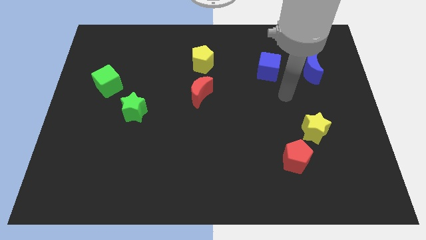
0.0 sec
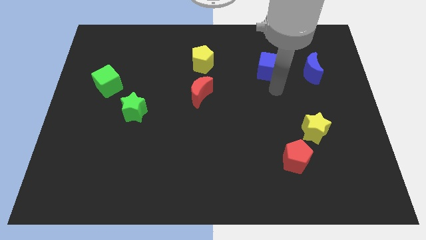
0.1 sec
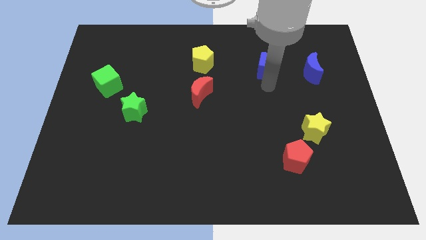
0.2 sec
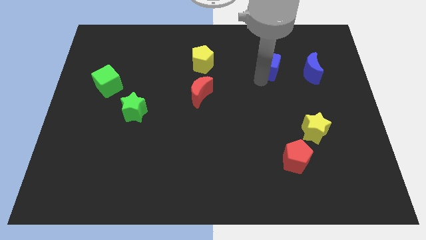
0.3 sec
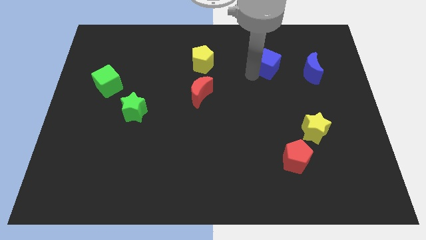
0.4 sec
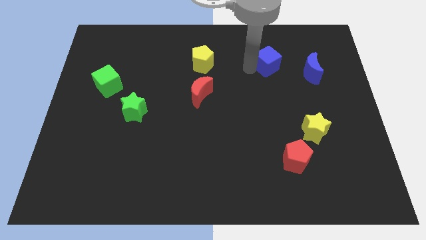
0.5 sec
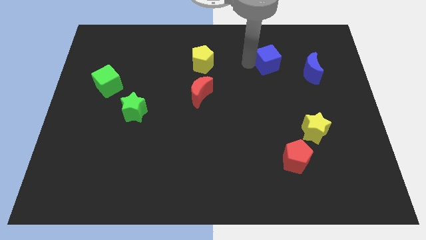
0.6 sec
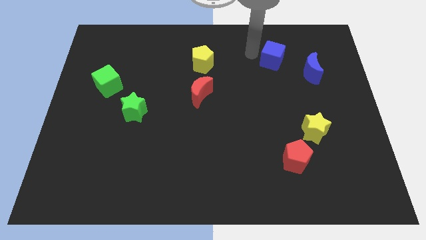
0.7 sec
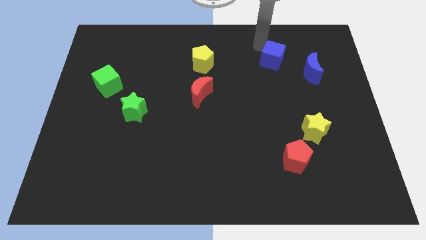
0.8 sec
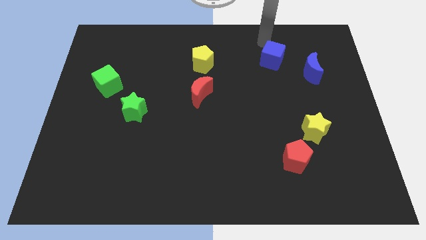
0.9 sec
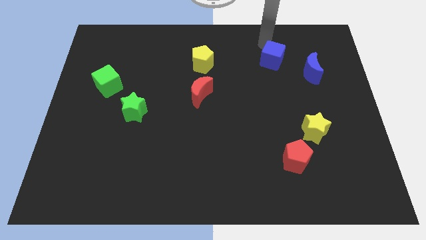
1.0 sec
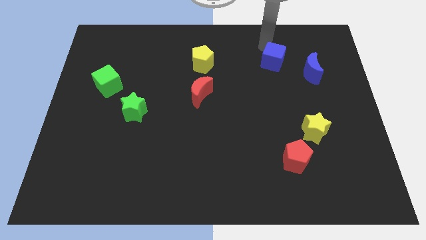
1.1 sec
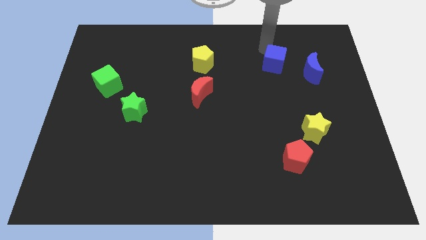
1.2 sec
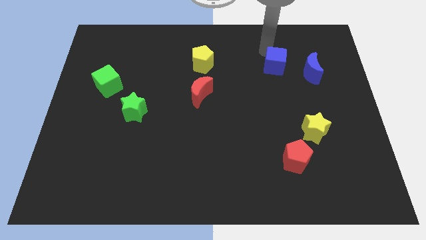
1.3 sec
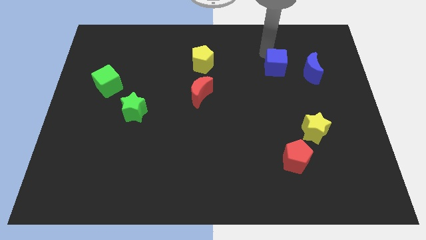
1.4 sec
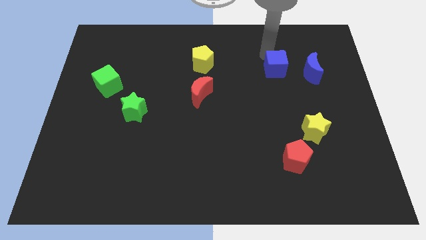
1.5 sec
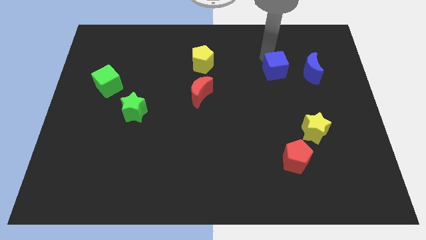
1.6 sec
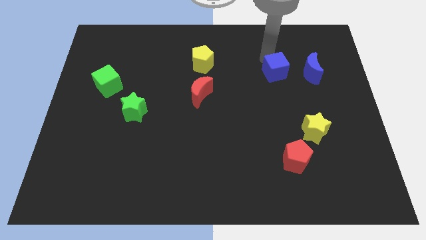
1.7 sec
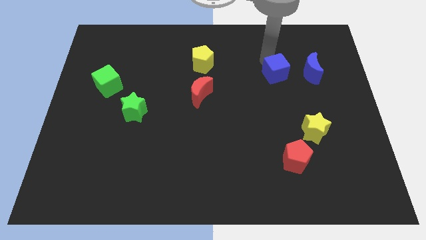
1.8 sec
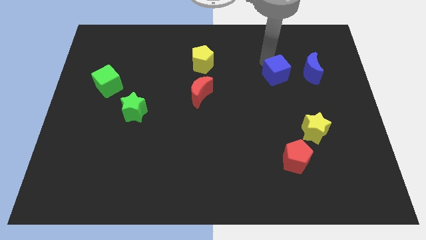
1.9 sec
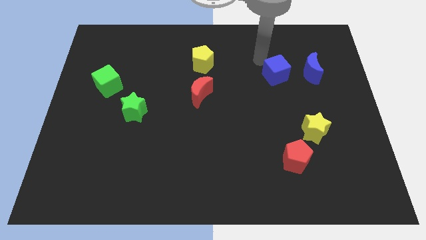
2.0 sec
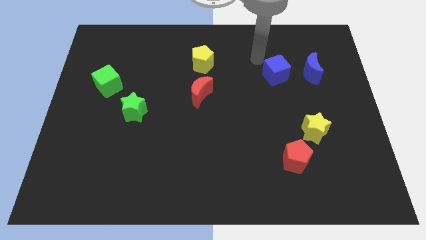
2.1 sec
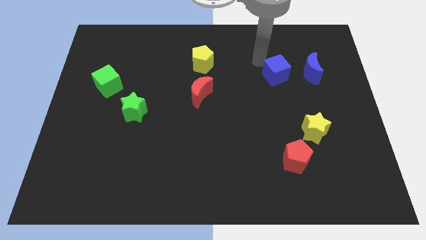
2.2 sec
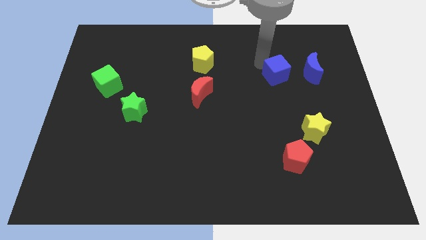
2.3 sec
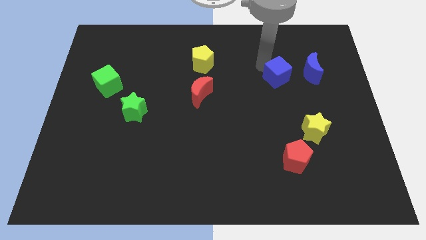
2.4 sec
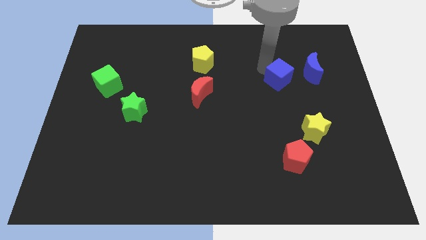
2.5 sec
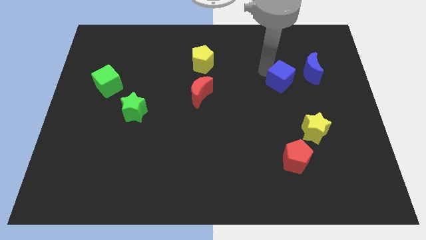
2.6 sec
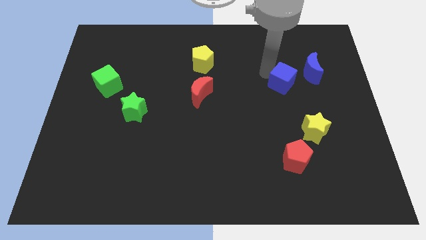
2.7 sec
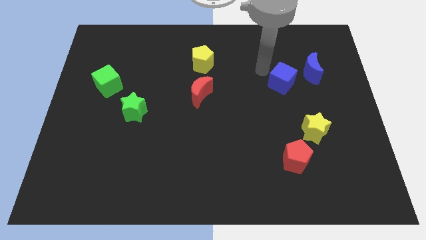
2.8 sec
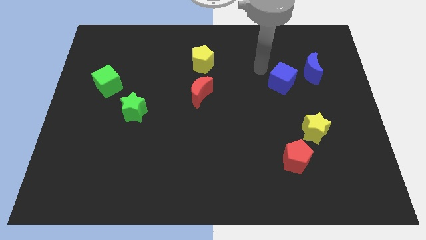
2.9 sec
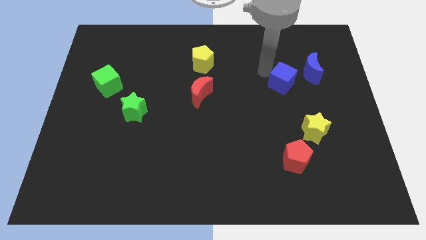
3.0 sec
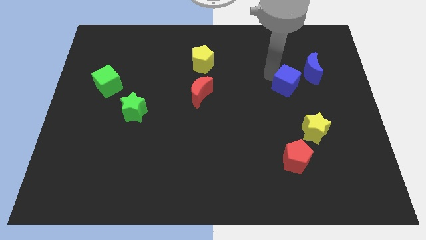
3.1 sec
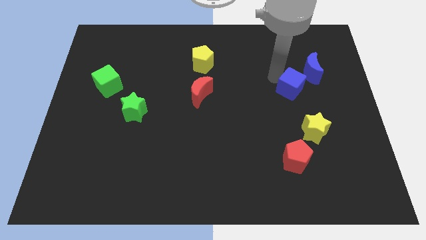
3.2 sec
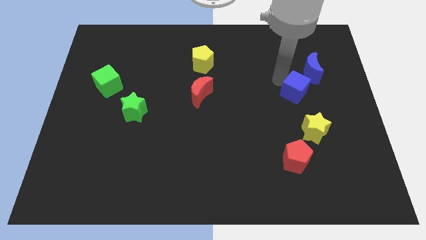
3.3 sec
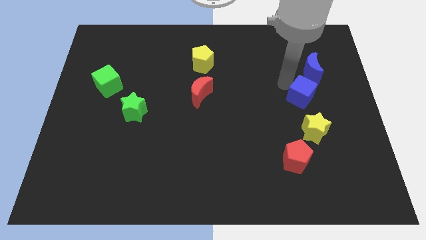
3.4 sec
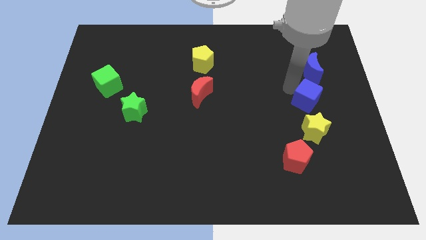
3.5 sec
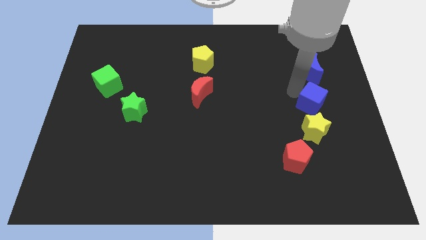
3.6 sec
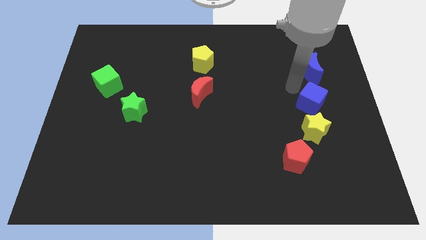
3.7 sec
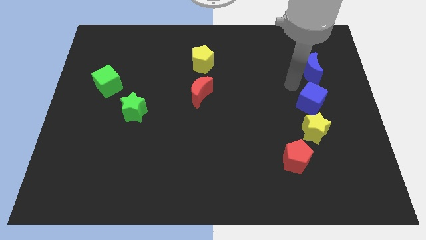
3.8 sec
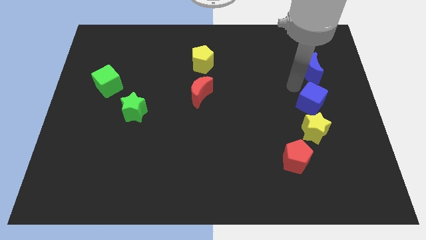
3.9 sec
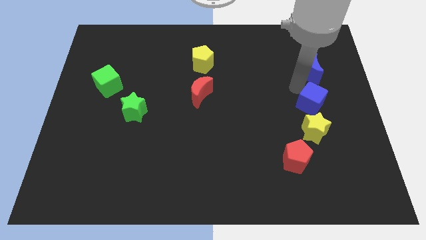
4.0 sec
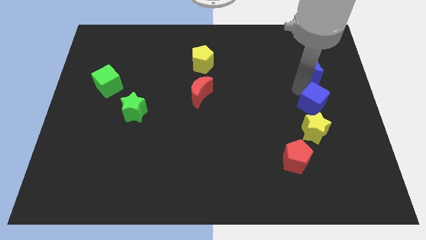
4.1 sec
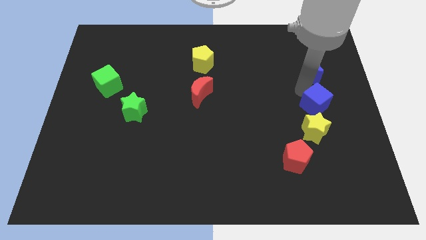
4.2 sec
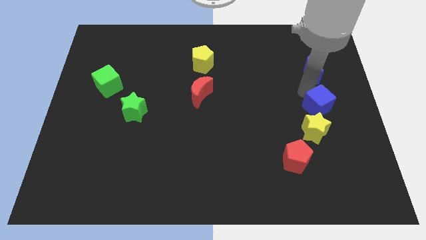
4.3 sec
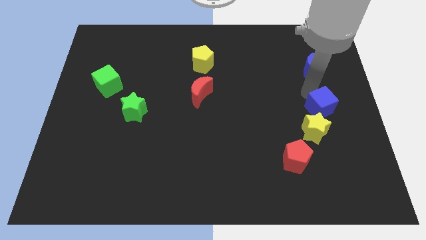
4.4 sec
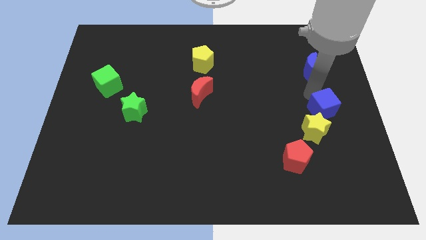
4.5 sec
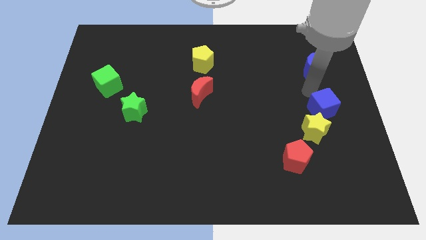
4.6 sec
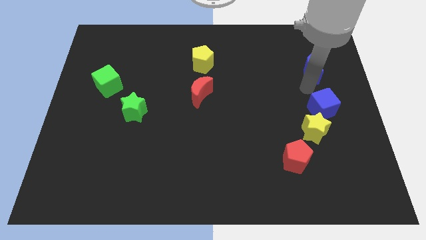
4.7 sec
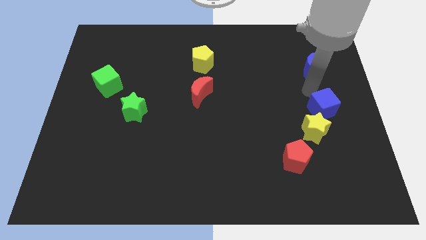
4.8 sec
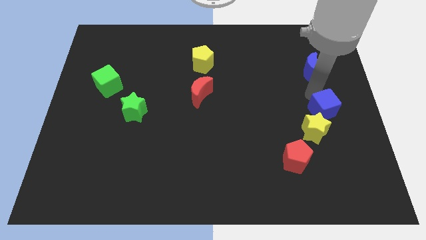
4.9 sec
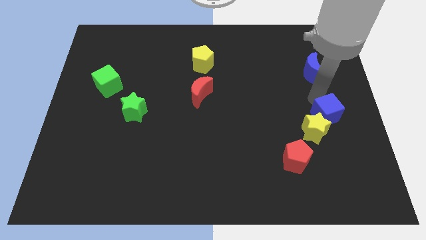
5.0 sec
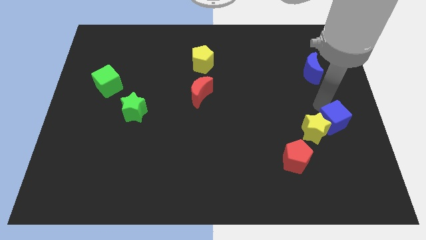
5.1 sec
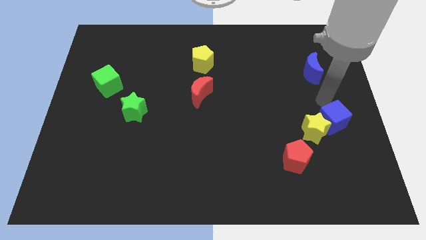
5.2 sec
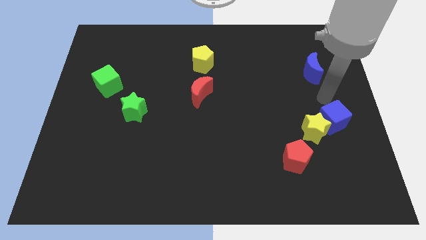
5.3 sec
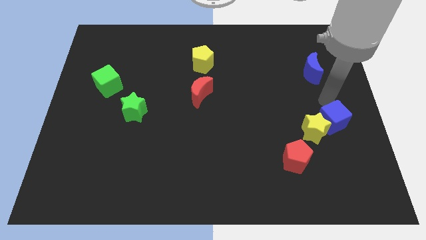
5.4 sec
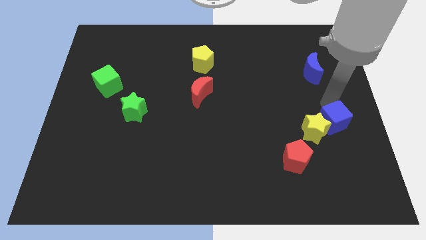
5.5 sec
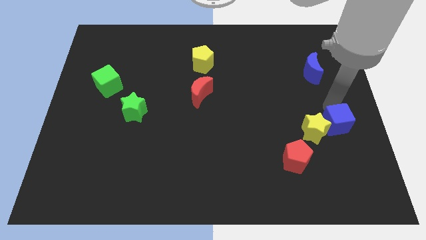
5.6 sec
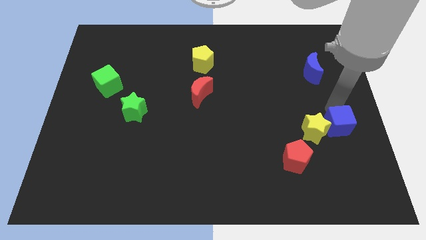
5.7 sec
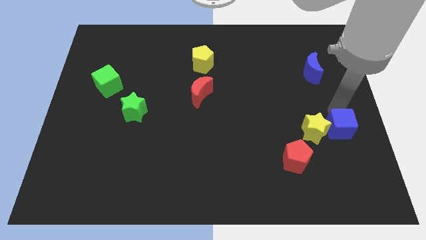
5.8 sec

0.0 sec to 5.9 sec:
move the blue cube diagonally down and to the right of the yellow star

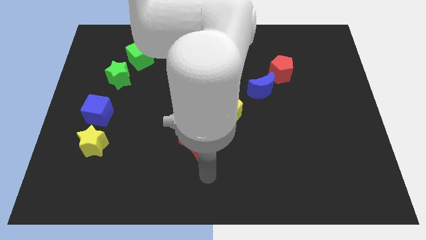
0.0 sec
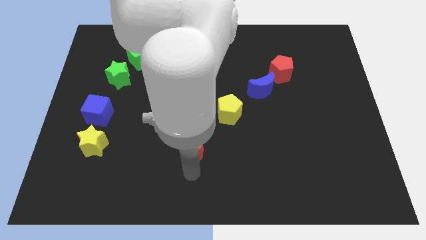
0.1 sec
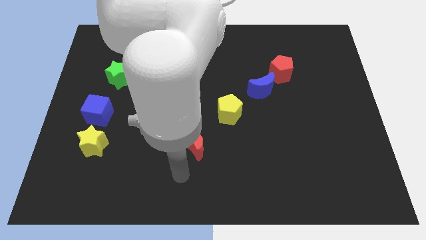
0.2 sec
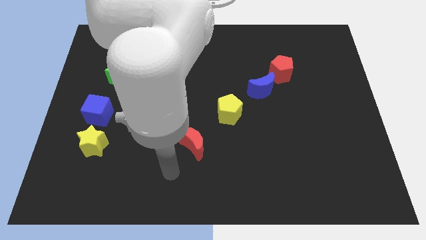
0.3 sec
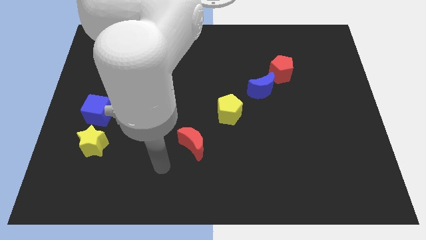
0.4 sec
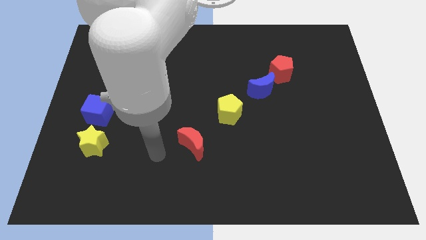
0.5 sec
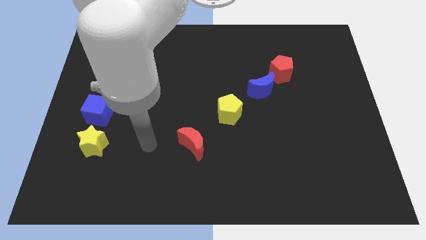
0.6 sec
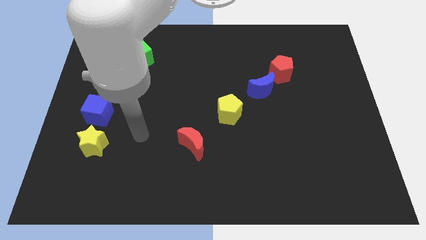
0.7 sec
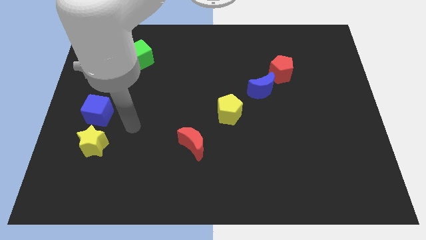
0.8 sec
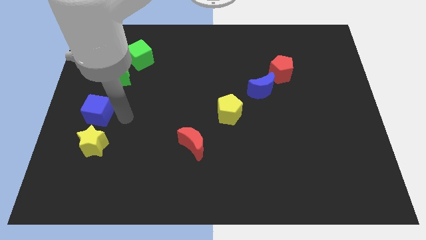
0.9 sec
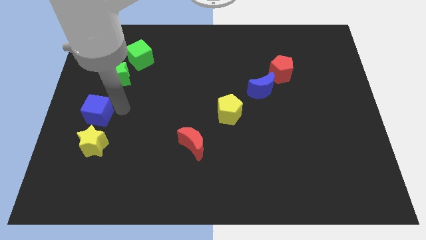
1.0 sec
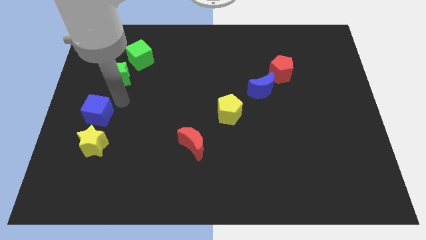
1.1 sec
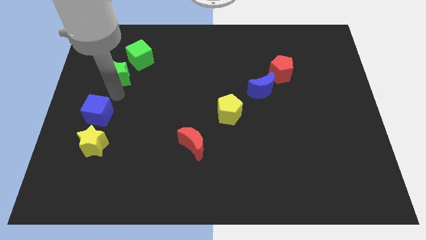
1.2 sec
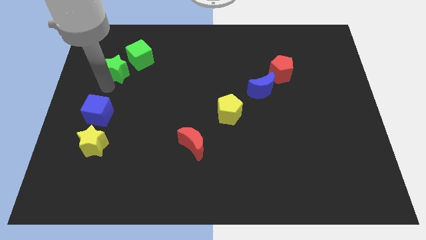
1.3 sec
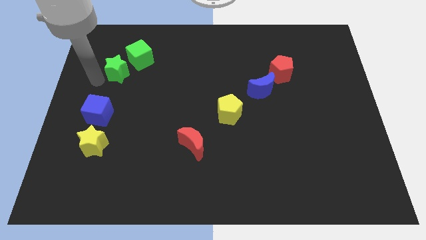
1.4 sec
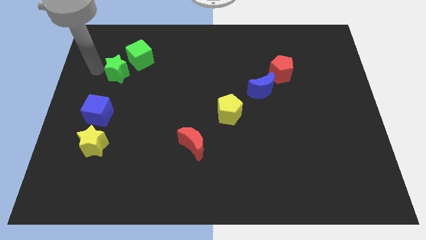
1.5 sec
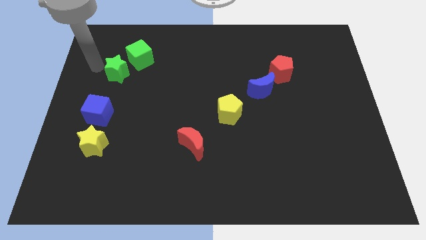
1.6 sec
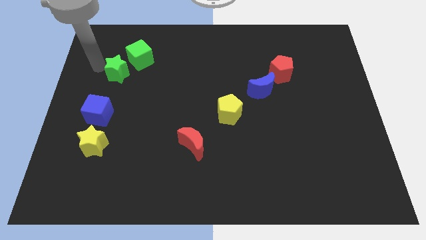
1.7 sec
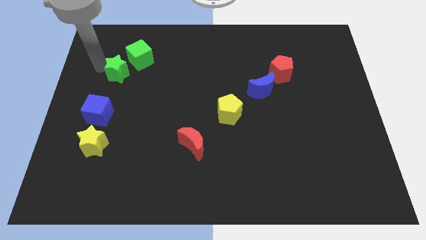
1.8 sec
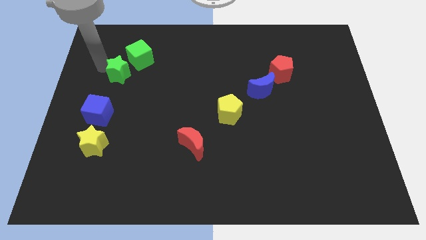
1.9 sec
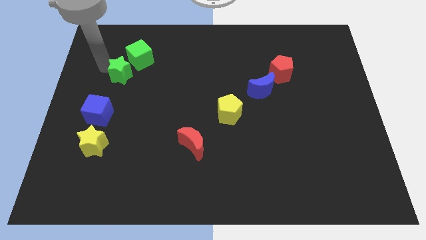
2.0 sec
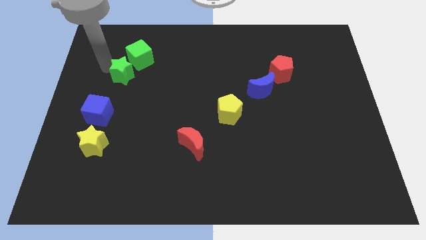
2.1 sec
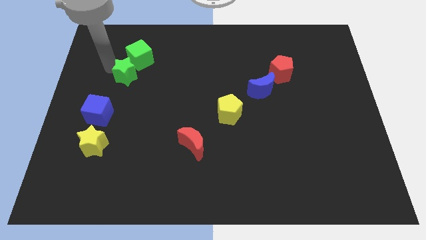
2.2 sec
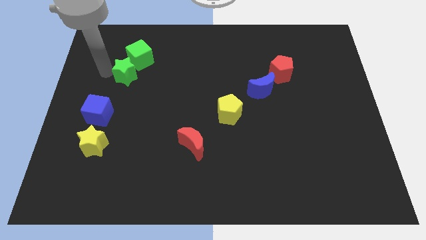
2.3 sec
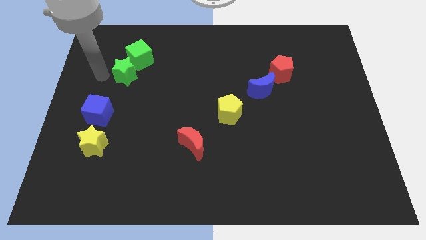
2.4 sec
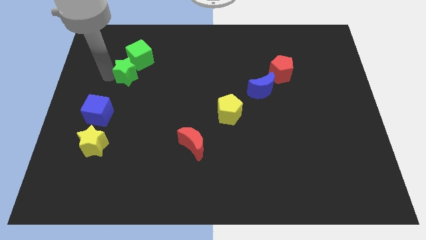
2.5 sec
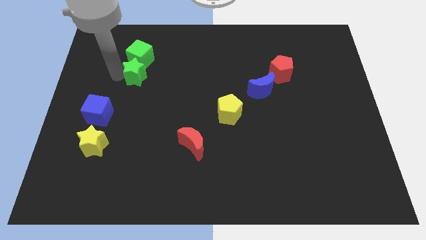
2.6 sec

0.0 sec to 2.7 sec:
push the green star to the bottom right of the green cube
